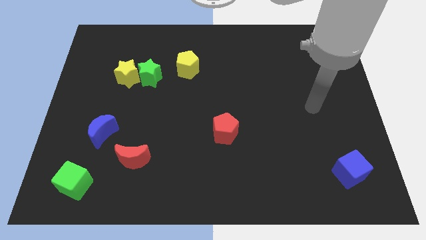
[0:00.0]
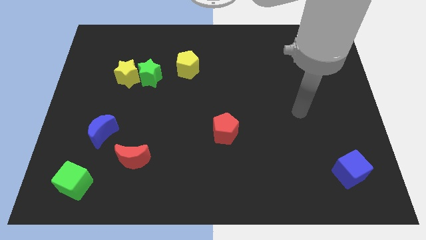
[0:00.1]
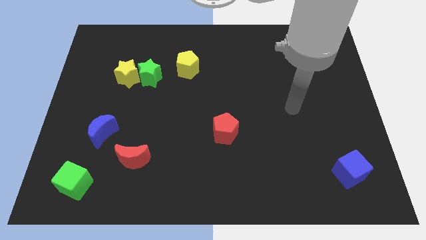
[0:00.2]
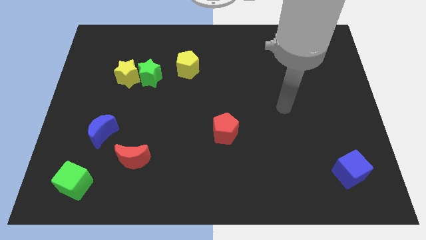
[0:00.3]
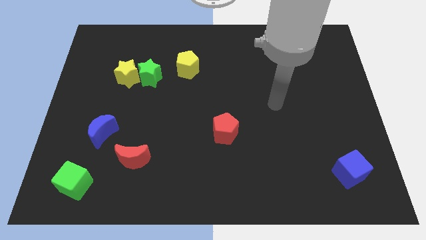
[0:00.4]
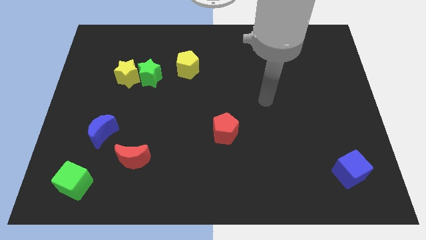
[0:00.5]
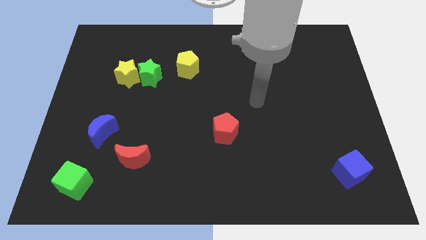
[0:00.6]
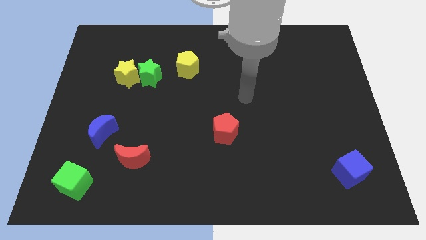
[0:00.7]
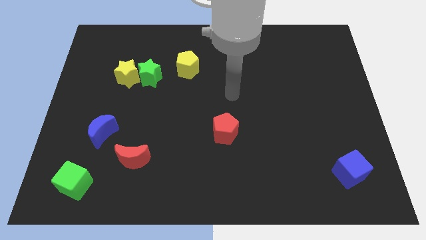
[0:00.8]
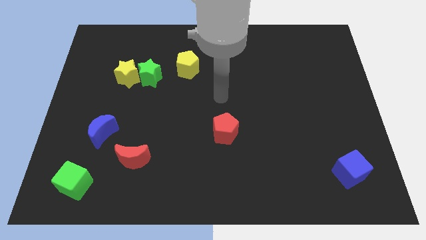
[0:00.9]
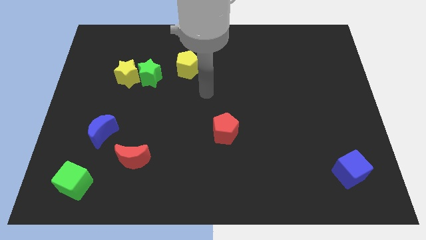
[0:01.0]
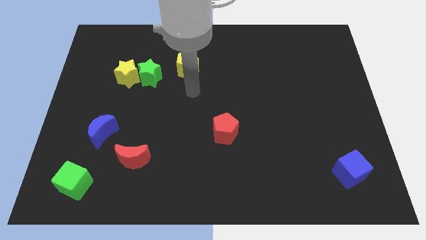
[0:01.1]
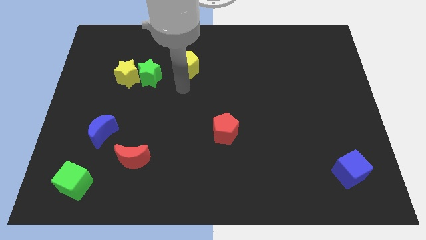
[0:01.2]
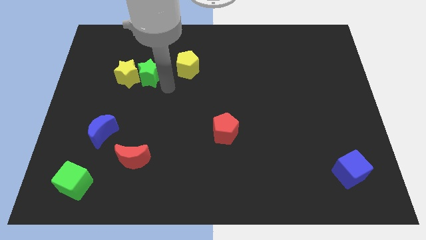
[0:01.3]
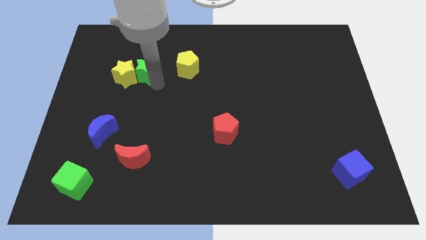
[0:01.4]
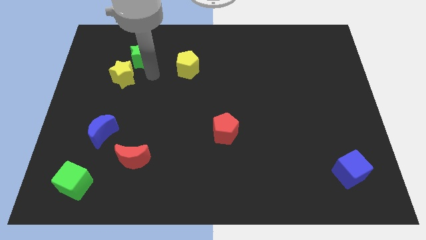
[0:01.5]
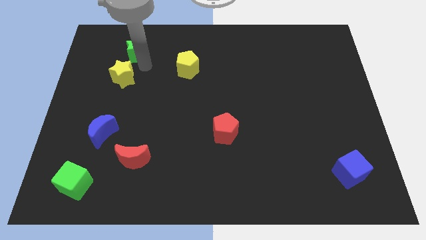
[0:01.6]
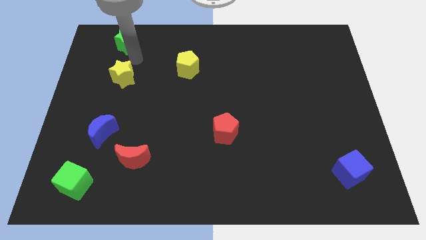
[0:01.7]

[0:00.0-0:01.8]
separate the yellow star from the green star

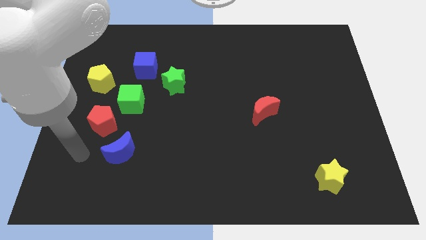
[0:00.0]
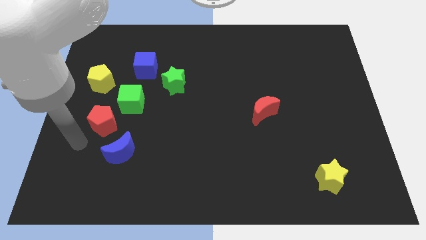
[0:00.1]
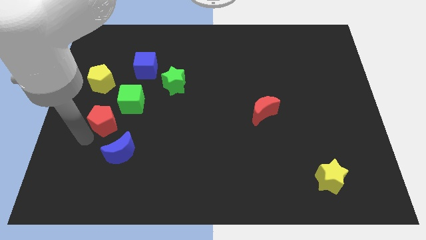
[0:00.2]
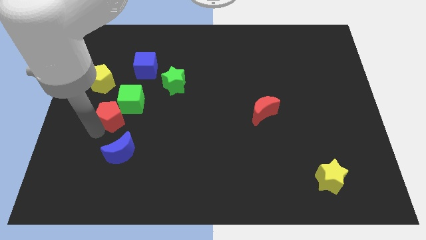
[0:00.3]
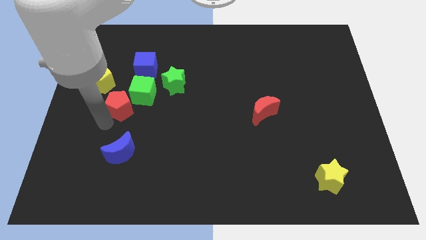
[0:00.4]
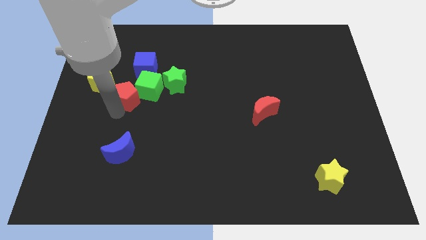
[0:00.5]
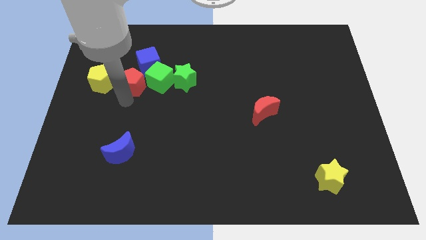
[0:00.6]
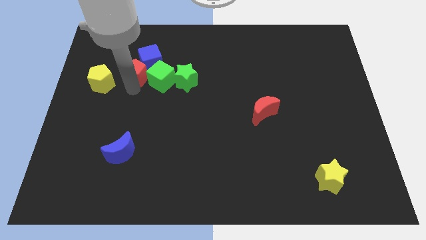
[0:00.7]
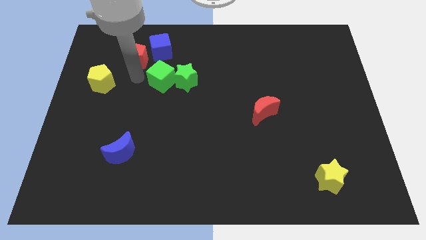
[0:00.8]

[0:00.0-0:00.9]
move the green cube away from the red pentagon

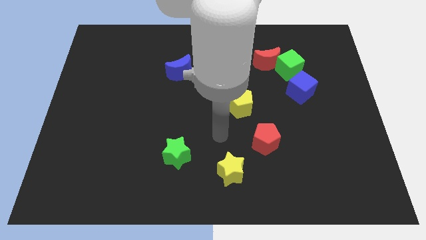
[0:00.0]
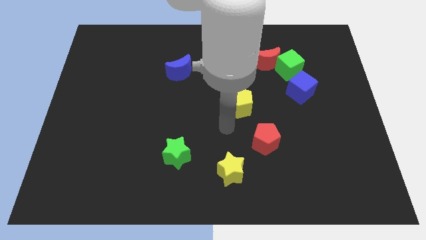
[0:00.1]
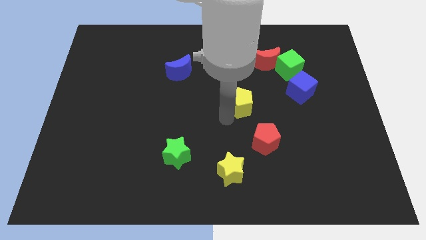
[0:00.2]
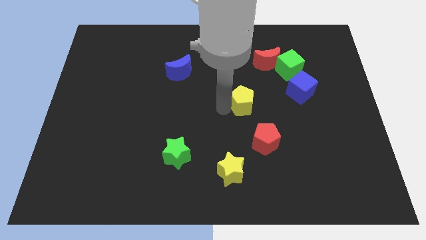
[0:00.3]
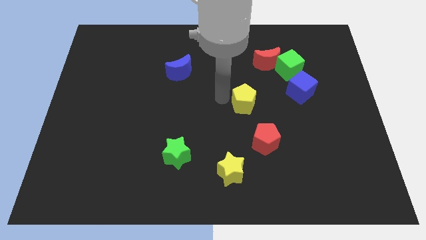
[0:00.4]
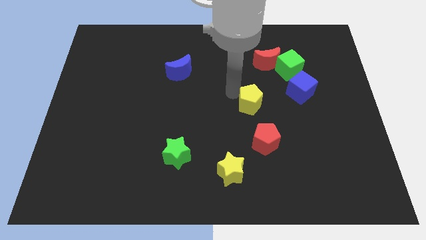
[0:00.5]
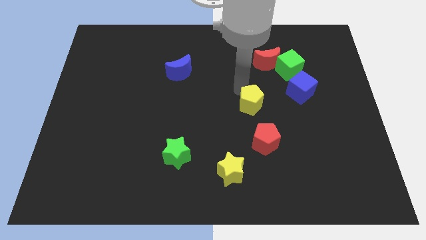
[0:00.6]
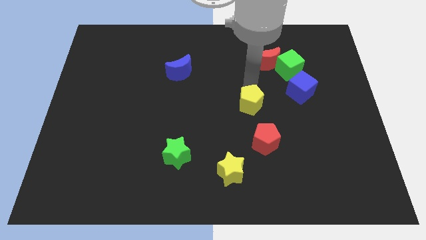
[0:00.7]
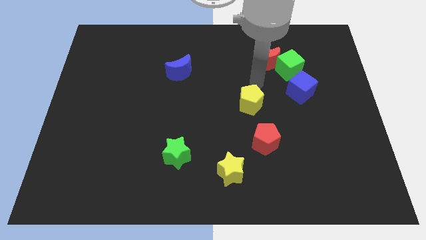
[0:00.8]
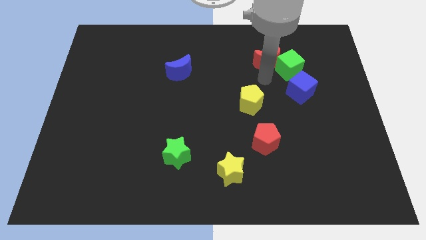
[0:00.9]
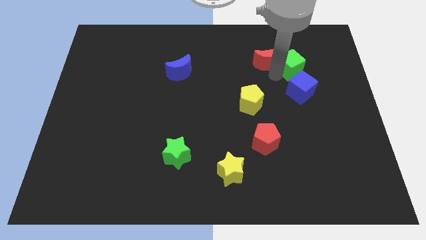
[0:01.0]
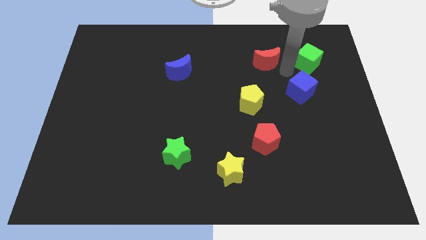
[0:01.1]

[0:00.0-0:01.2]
separate the red moon from the green cube

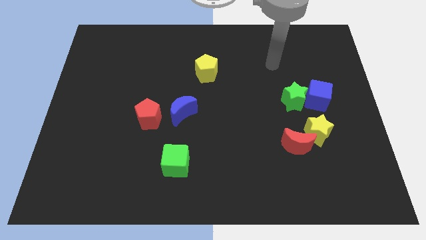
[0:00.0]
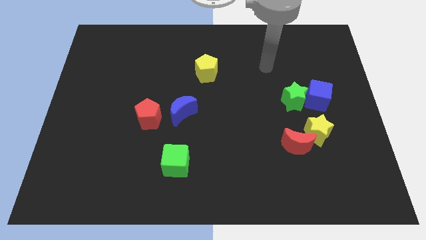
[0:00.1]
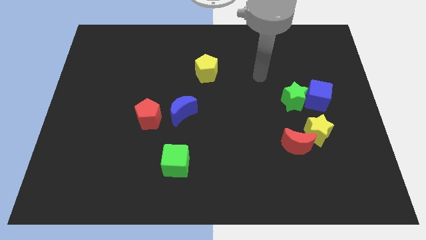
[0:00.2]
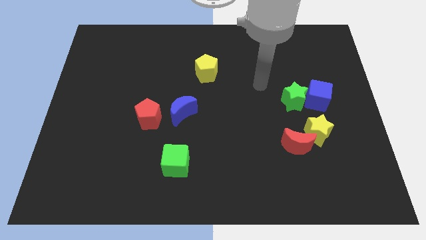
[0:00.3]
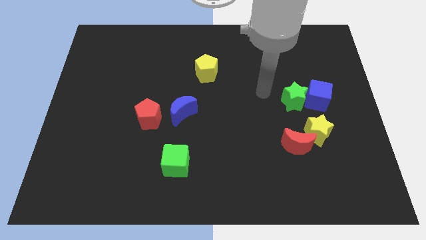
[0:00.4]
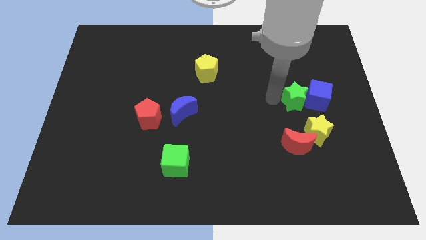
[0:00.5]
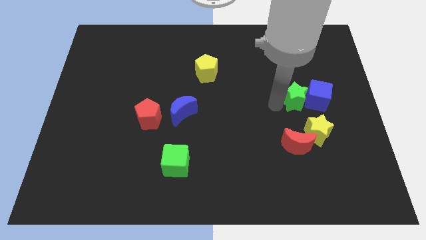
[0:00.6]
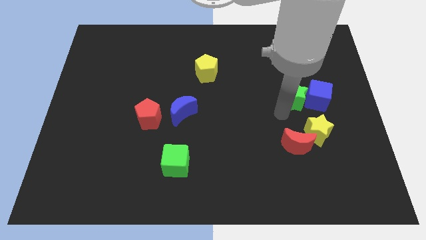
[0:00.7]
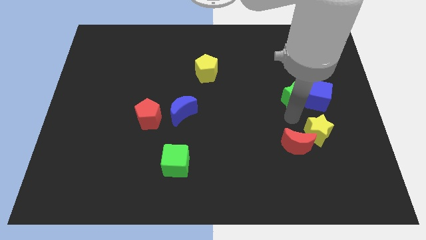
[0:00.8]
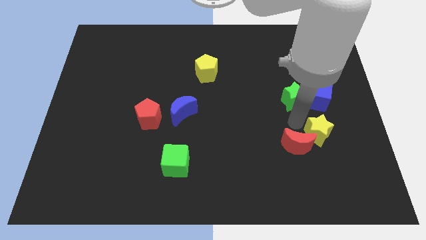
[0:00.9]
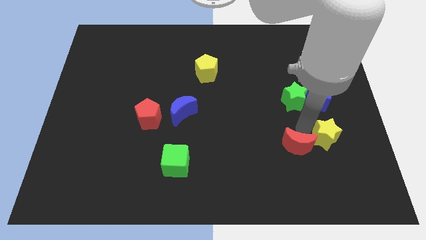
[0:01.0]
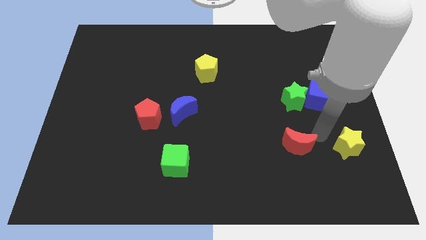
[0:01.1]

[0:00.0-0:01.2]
separate the red moon from the yellow star

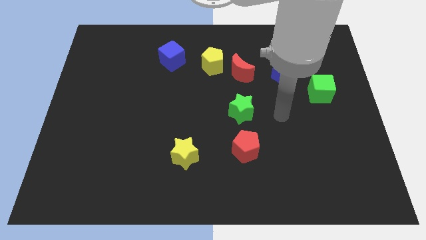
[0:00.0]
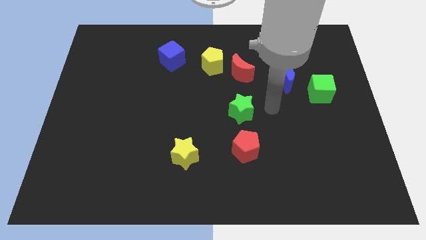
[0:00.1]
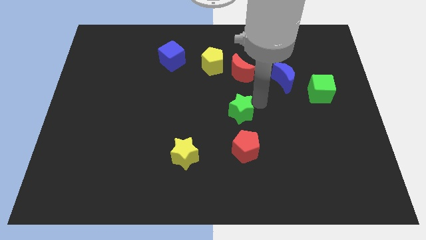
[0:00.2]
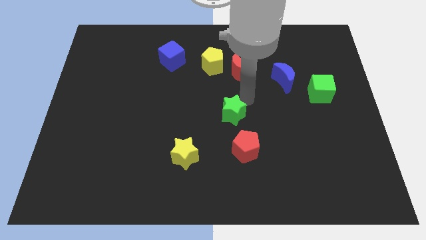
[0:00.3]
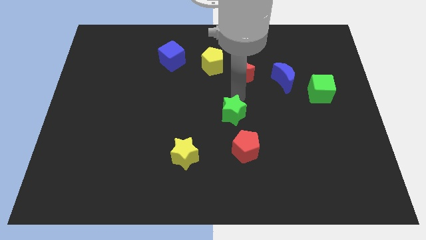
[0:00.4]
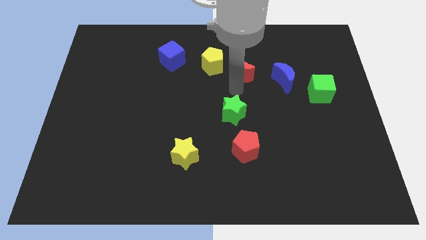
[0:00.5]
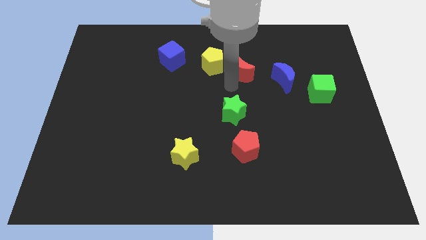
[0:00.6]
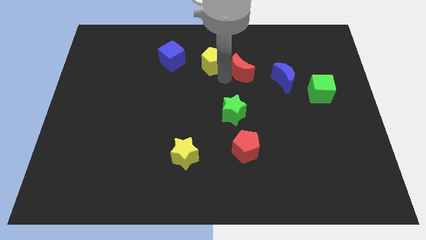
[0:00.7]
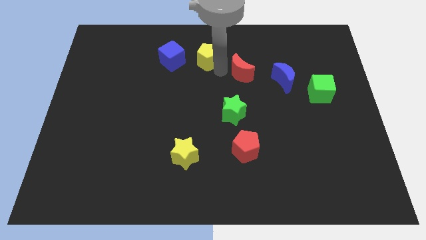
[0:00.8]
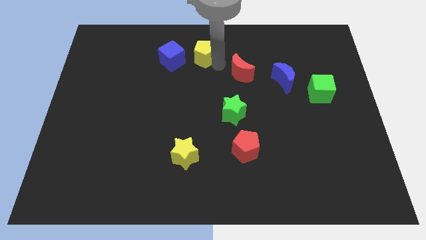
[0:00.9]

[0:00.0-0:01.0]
pull the red moon apart from the yellow pentagon

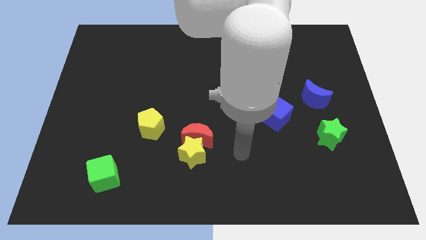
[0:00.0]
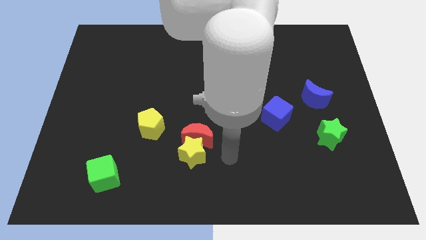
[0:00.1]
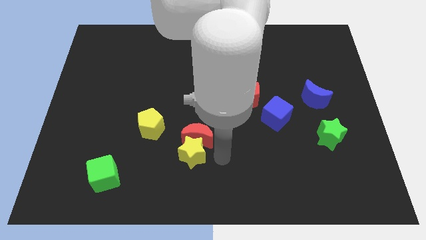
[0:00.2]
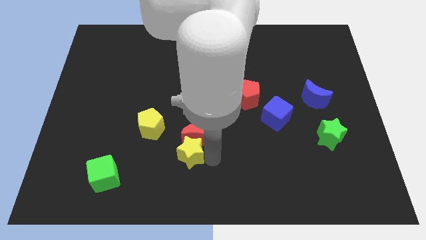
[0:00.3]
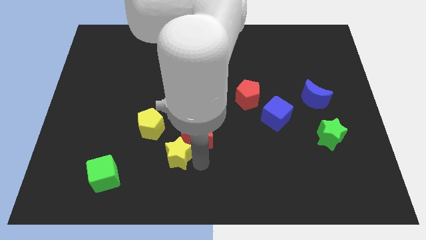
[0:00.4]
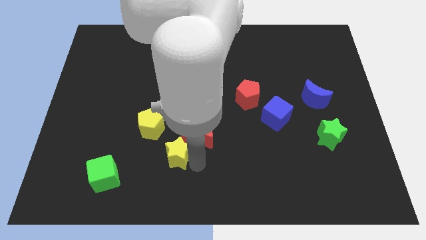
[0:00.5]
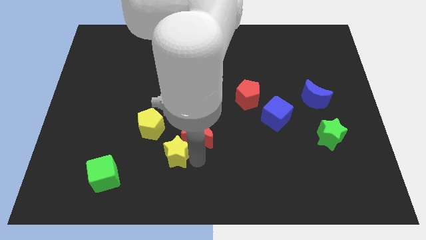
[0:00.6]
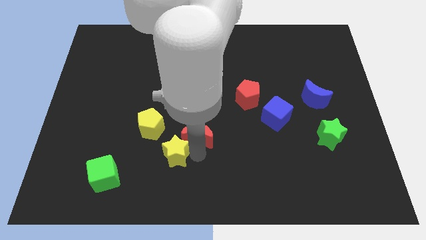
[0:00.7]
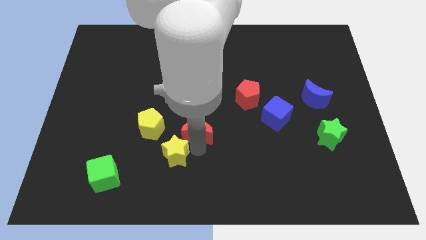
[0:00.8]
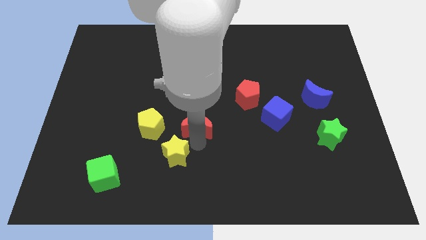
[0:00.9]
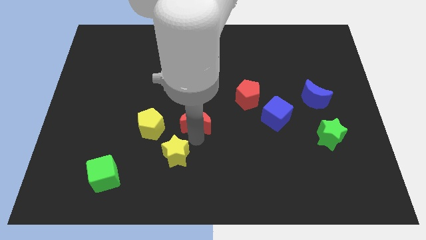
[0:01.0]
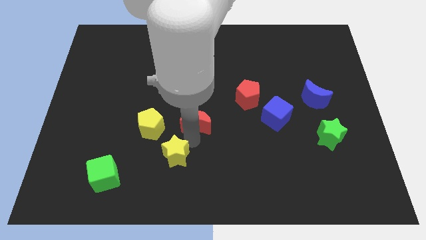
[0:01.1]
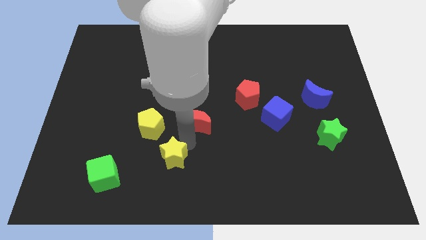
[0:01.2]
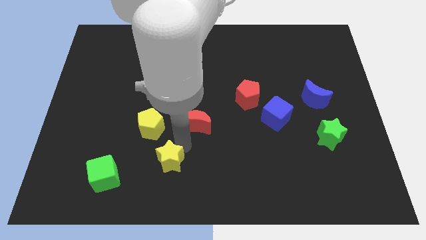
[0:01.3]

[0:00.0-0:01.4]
pull the red moon apart from the yellow star

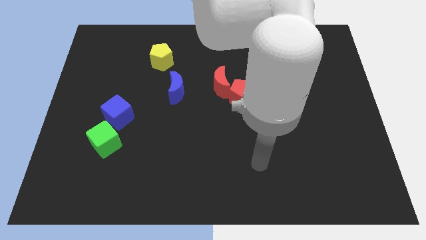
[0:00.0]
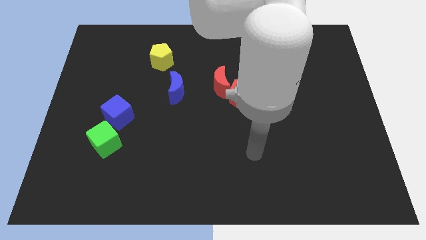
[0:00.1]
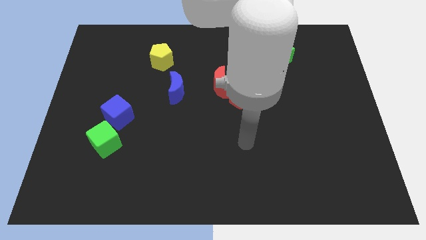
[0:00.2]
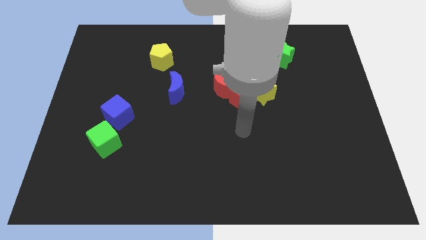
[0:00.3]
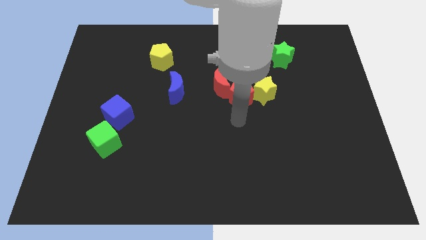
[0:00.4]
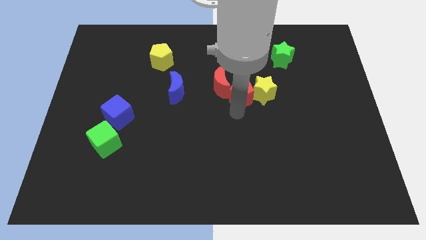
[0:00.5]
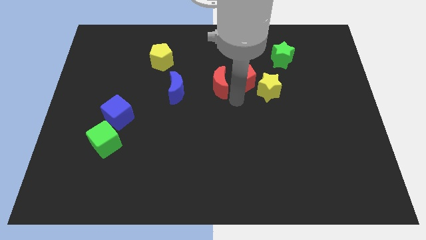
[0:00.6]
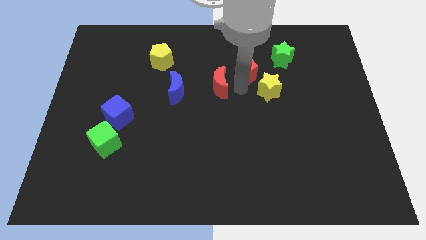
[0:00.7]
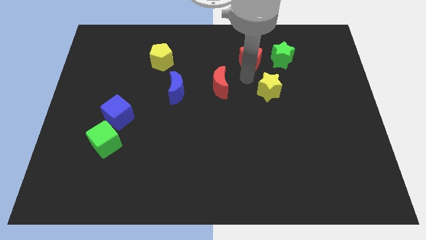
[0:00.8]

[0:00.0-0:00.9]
pull the yellow star apart from the red pentagon

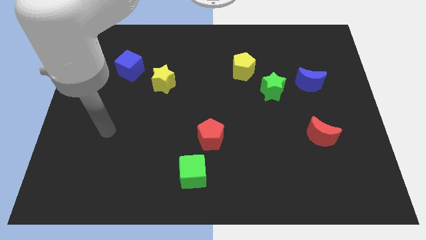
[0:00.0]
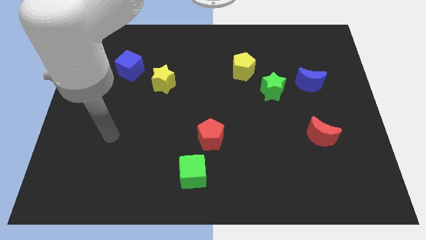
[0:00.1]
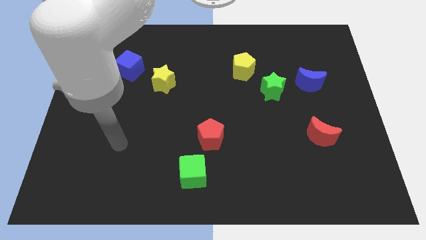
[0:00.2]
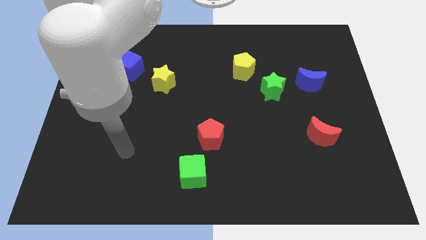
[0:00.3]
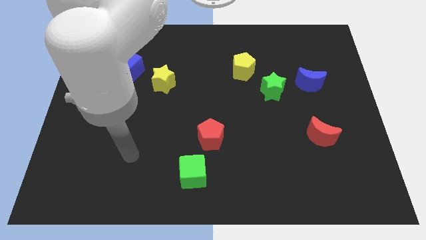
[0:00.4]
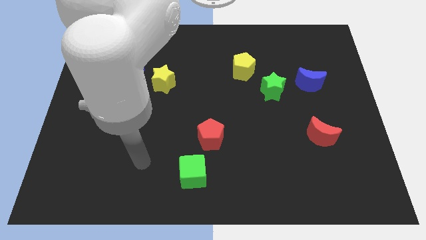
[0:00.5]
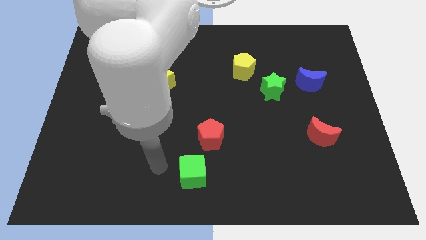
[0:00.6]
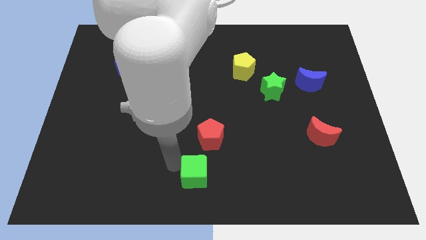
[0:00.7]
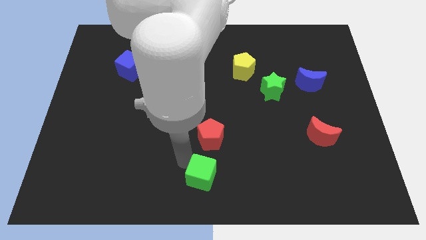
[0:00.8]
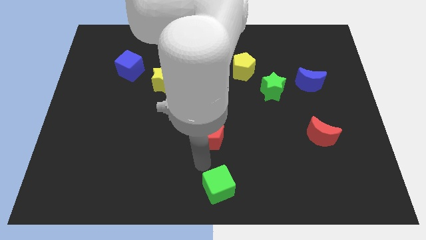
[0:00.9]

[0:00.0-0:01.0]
pull the red pentagon apart from the green cube
